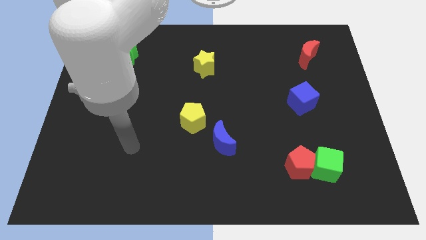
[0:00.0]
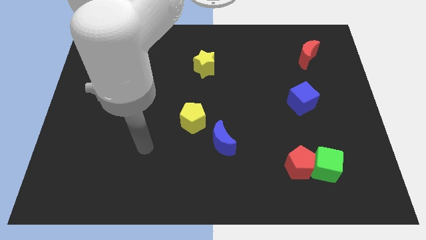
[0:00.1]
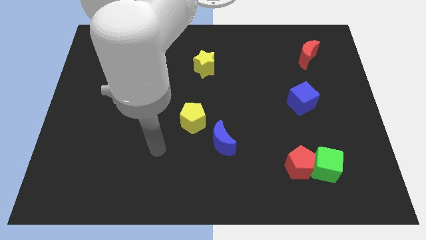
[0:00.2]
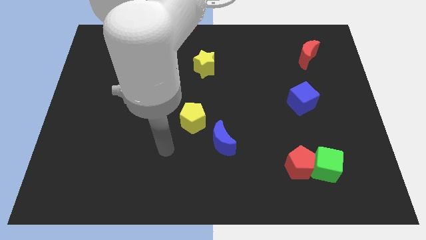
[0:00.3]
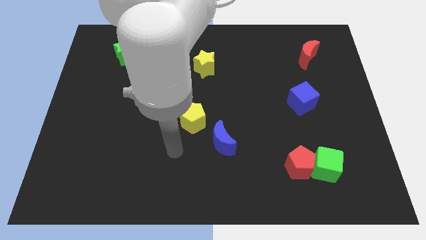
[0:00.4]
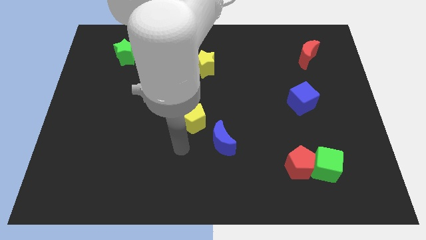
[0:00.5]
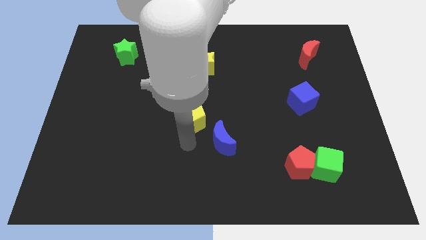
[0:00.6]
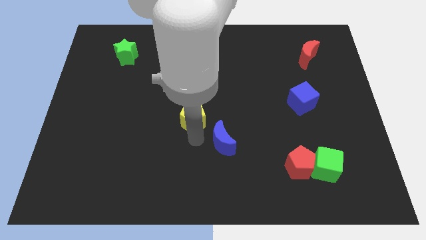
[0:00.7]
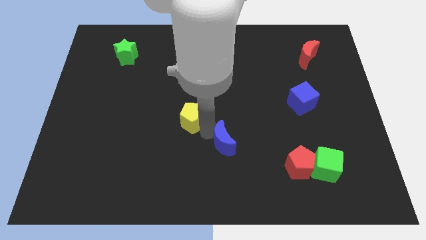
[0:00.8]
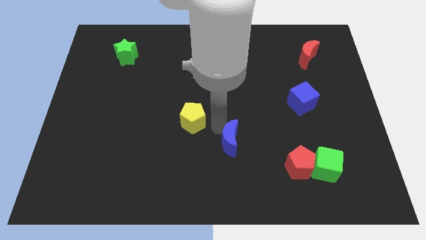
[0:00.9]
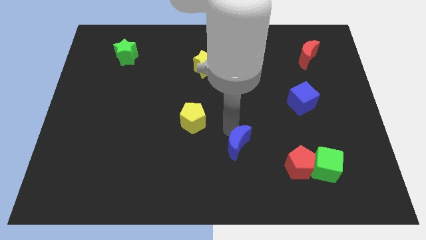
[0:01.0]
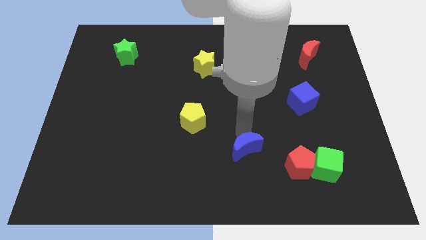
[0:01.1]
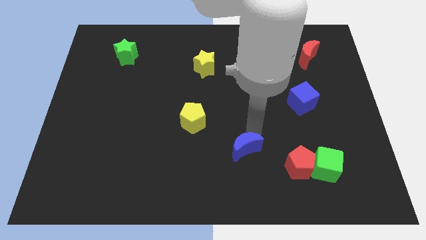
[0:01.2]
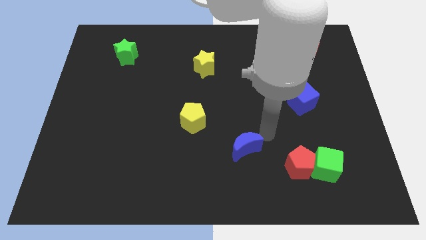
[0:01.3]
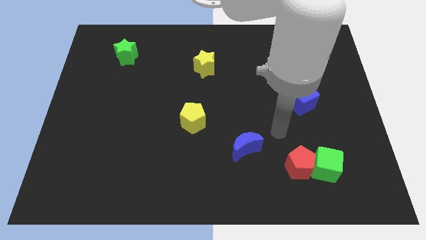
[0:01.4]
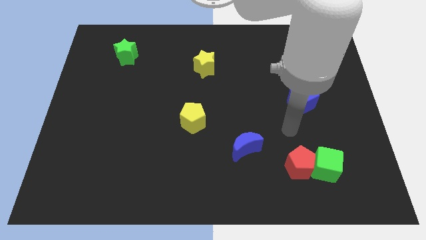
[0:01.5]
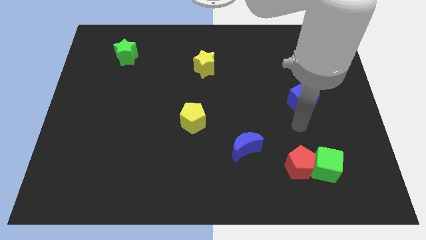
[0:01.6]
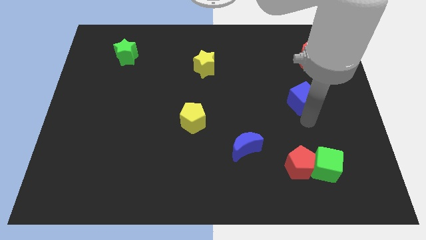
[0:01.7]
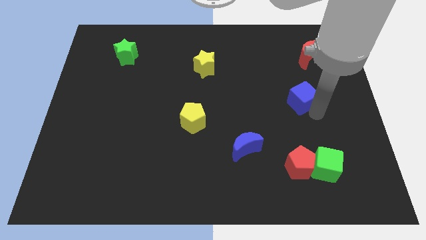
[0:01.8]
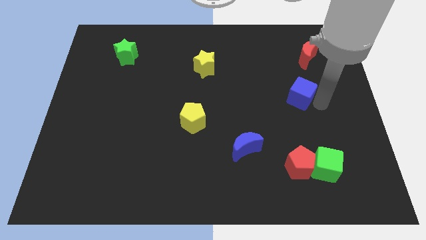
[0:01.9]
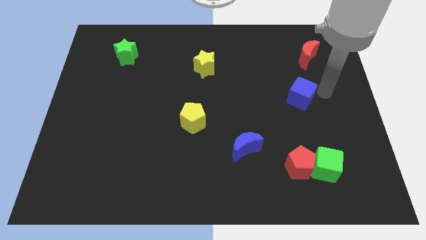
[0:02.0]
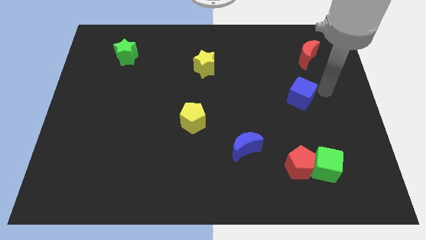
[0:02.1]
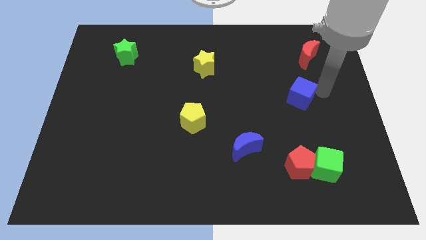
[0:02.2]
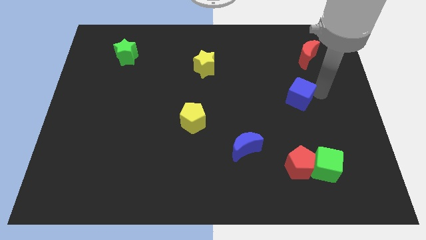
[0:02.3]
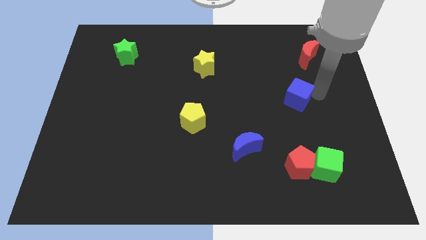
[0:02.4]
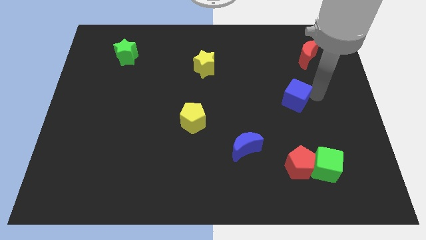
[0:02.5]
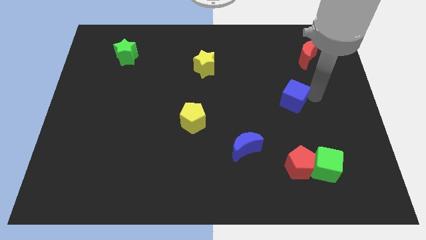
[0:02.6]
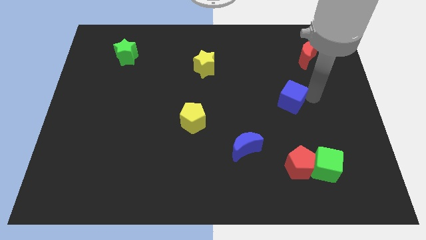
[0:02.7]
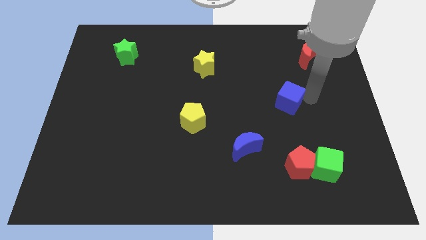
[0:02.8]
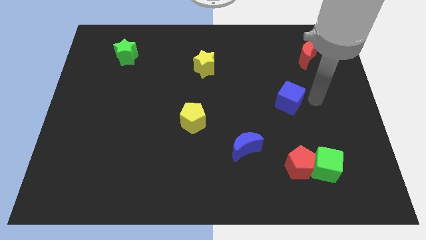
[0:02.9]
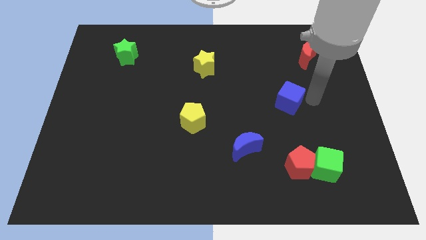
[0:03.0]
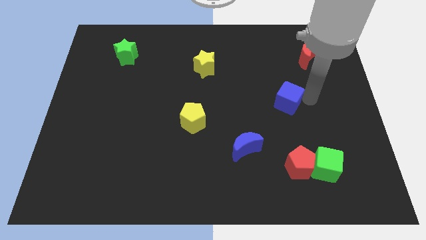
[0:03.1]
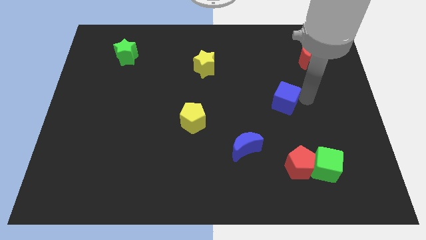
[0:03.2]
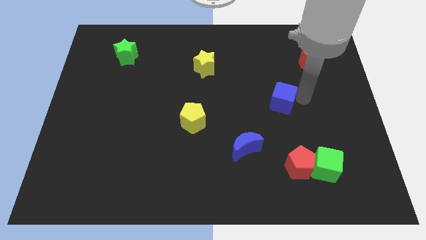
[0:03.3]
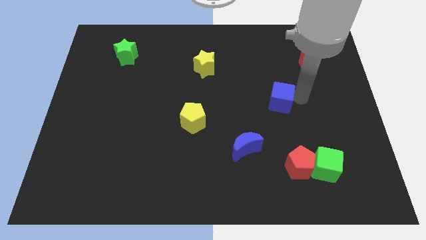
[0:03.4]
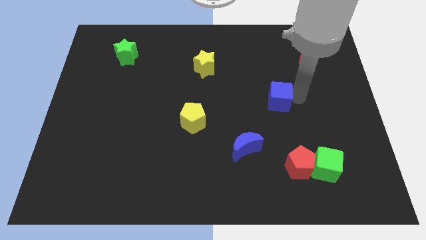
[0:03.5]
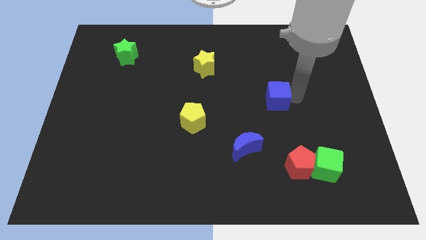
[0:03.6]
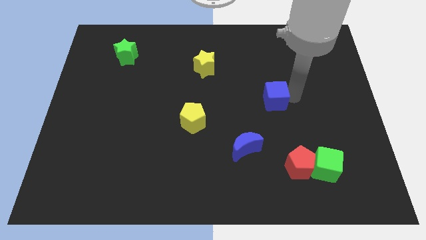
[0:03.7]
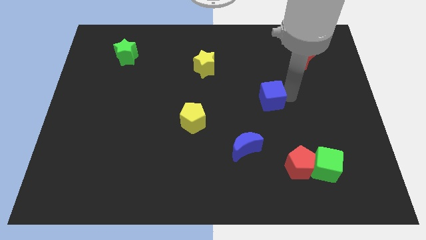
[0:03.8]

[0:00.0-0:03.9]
slightly move the blue cube to the left

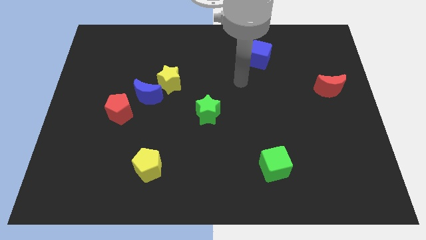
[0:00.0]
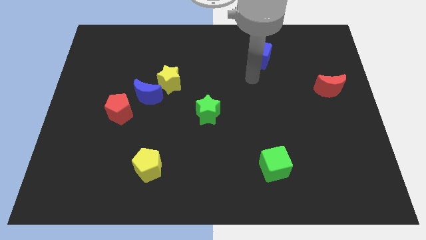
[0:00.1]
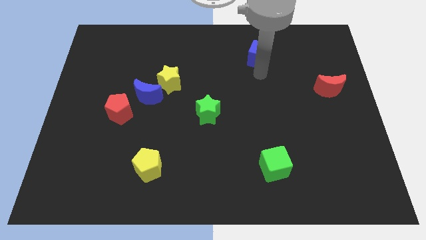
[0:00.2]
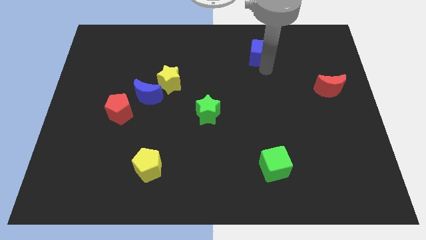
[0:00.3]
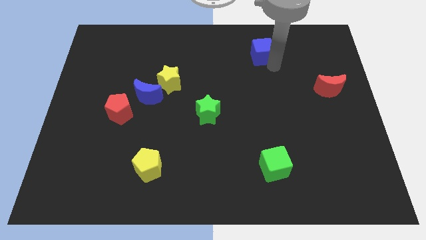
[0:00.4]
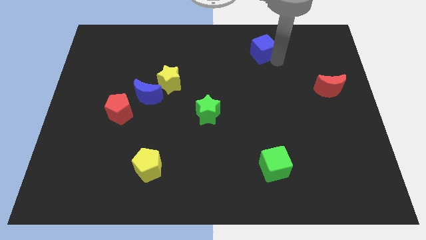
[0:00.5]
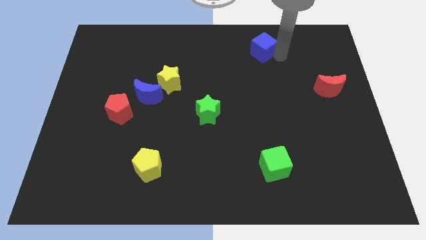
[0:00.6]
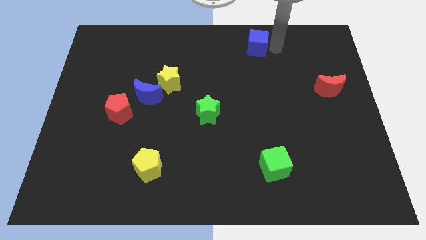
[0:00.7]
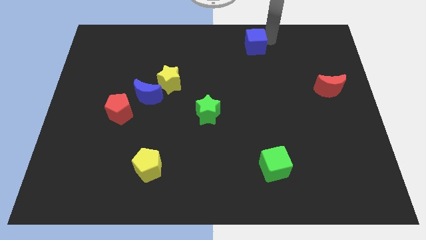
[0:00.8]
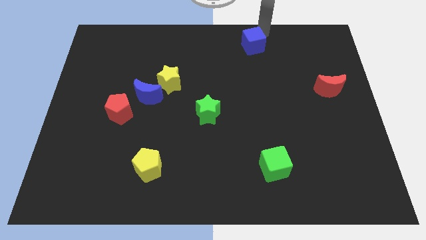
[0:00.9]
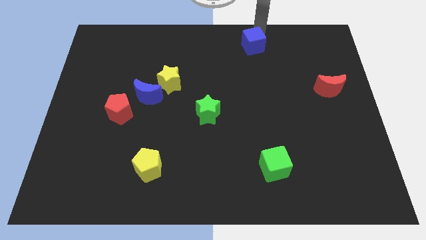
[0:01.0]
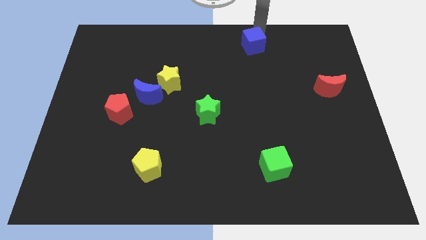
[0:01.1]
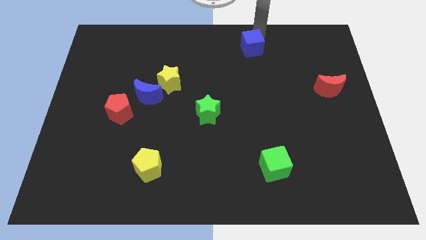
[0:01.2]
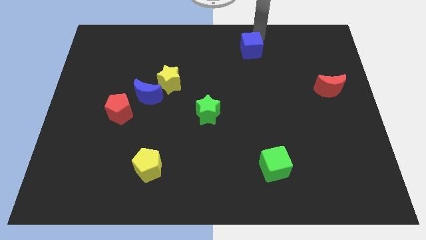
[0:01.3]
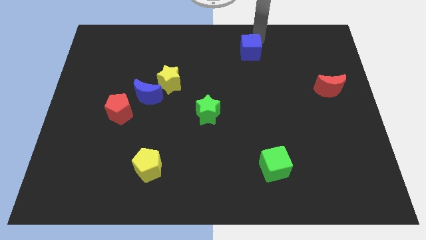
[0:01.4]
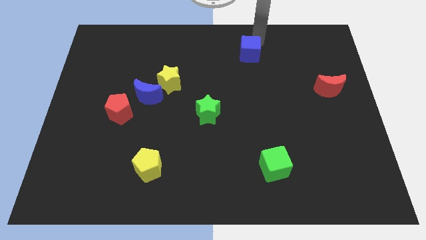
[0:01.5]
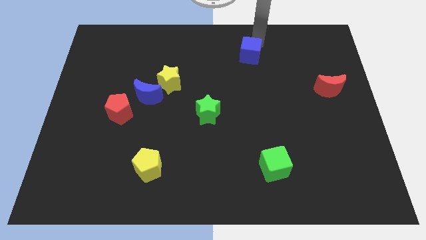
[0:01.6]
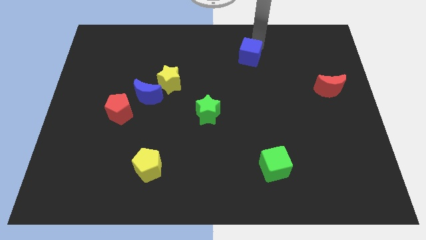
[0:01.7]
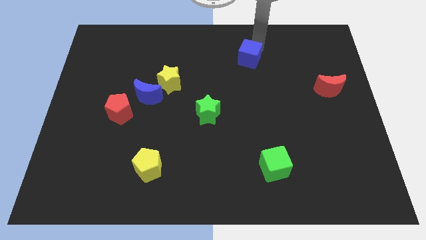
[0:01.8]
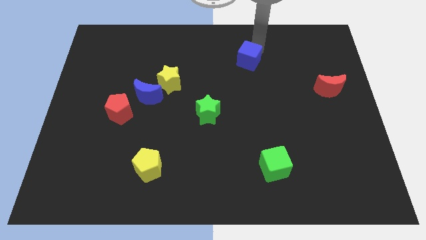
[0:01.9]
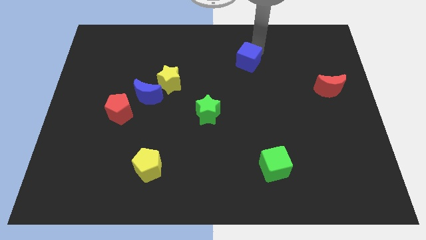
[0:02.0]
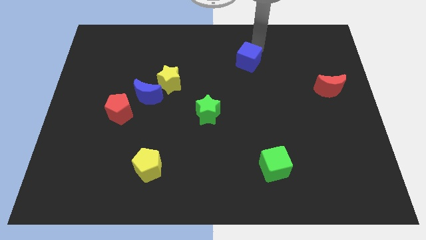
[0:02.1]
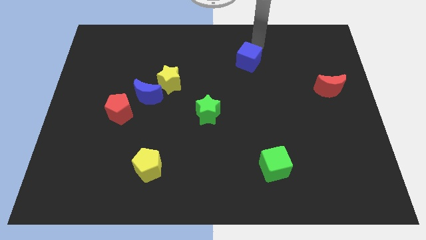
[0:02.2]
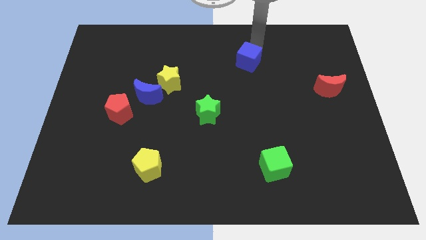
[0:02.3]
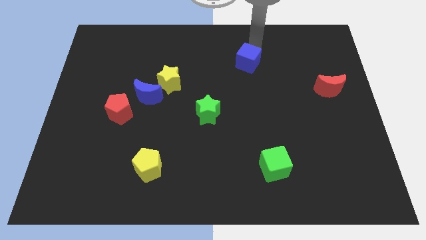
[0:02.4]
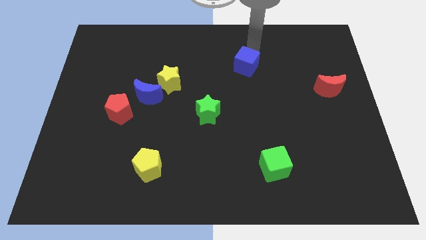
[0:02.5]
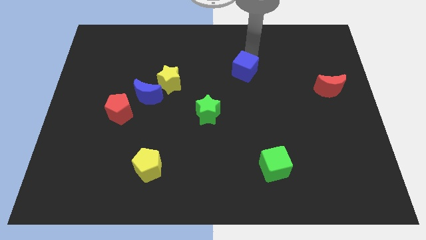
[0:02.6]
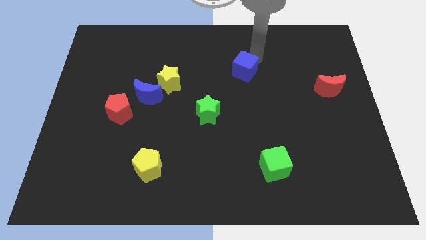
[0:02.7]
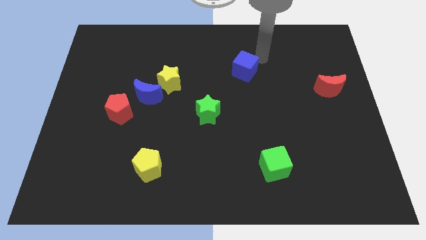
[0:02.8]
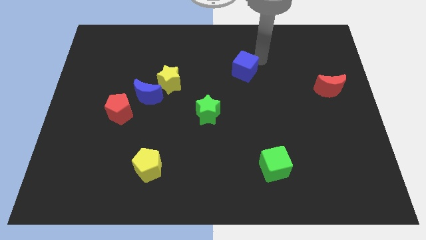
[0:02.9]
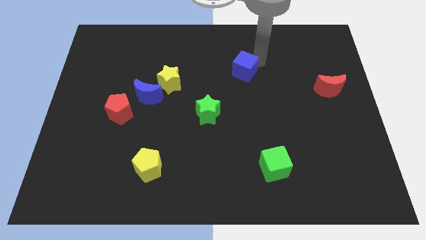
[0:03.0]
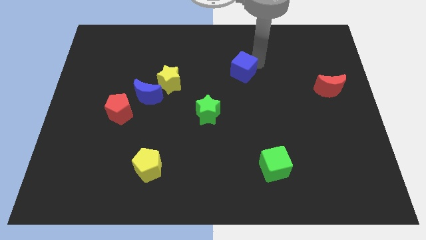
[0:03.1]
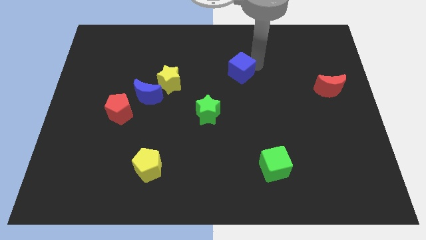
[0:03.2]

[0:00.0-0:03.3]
slightly move the blue cube downwards and to the left diagonally

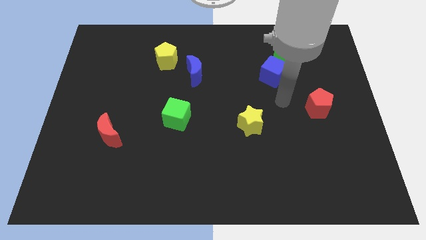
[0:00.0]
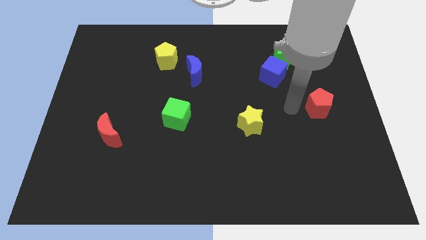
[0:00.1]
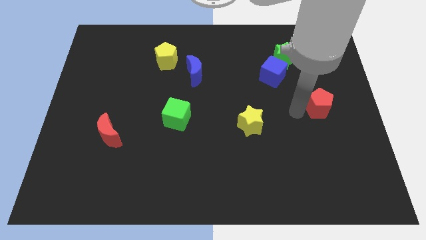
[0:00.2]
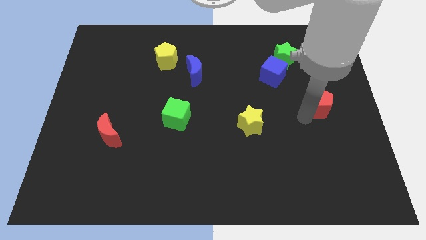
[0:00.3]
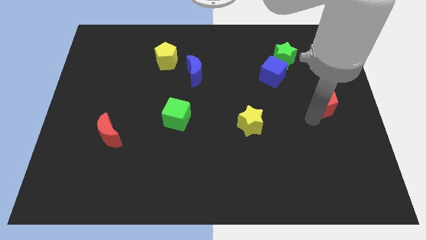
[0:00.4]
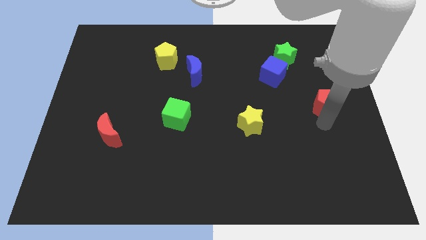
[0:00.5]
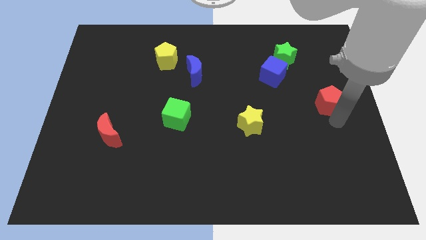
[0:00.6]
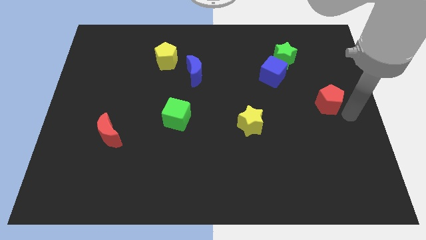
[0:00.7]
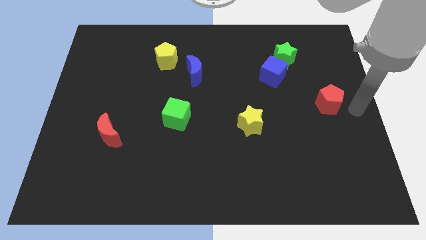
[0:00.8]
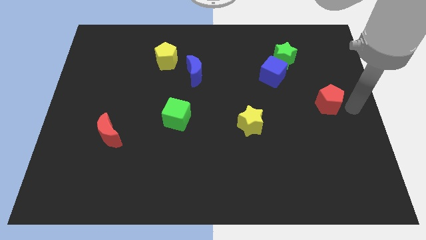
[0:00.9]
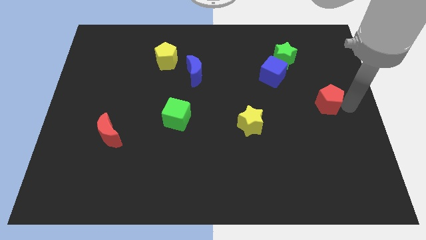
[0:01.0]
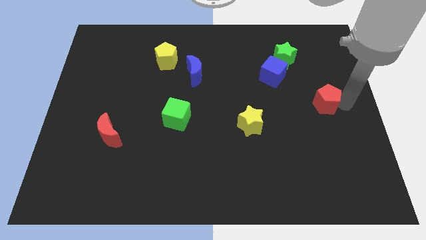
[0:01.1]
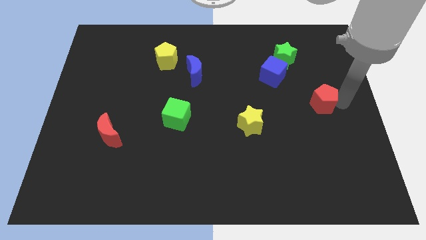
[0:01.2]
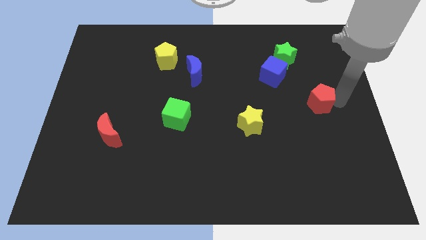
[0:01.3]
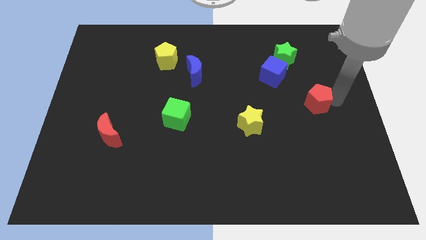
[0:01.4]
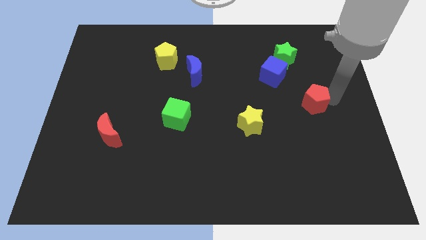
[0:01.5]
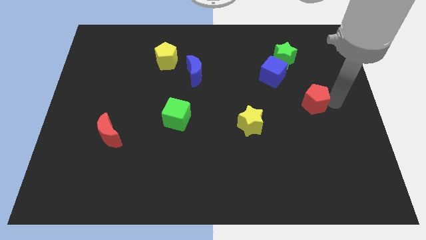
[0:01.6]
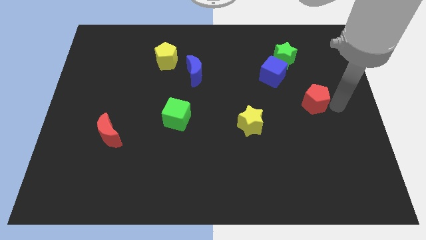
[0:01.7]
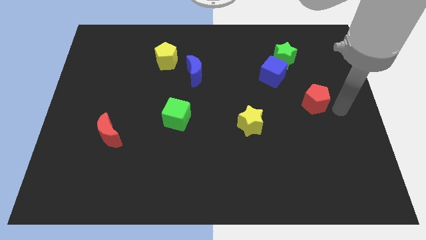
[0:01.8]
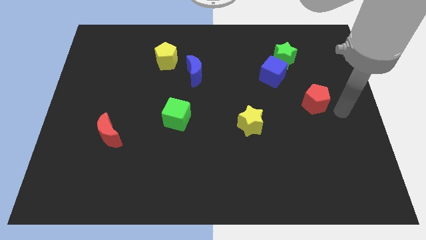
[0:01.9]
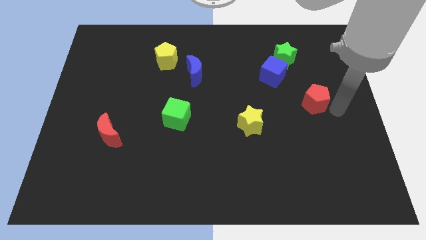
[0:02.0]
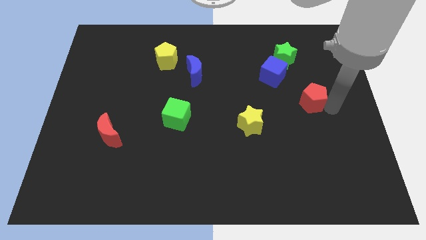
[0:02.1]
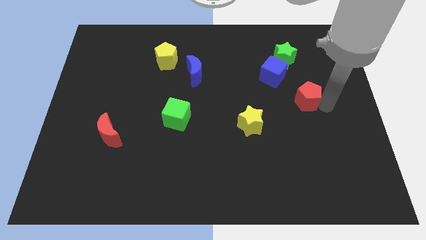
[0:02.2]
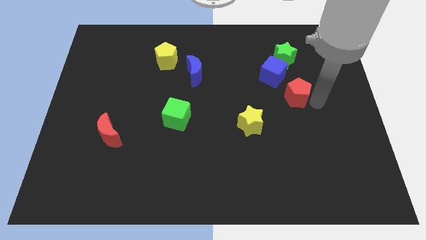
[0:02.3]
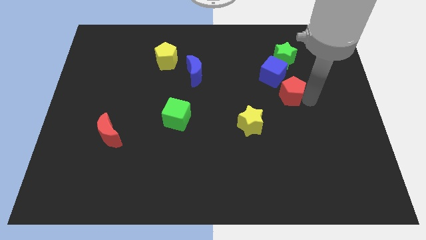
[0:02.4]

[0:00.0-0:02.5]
slide the red pentagon a bit diagonally upwards and to the left
